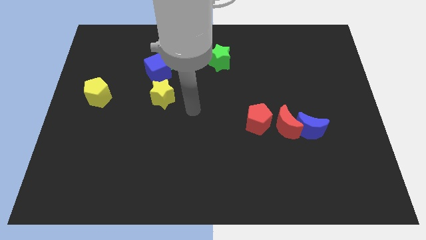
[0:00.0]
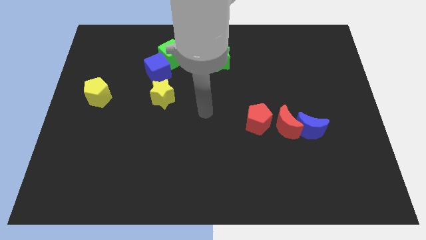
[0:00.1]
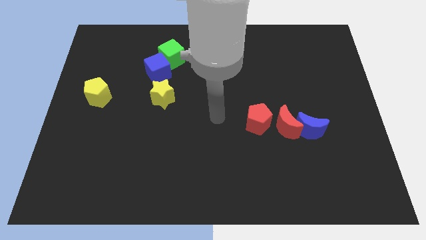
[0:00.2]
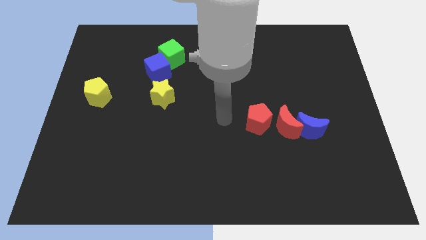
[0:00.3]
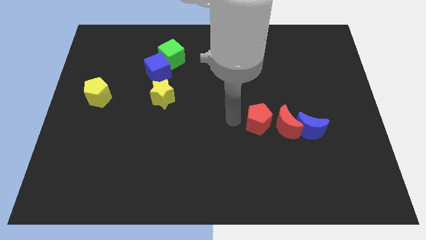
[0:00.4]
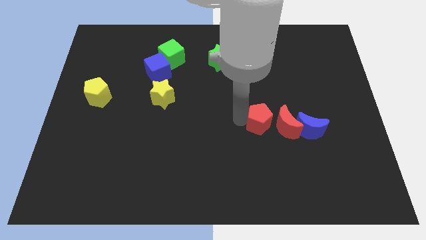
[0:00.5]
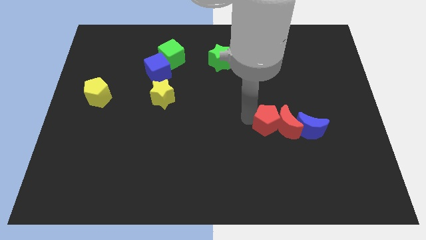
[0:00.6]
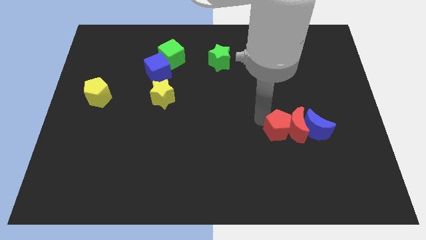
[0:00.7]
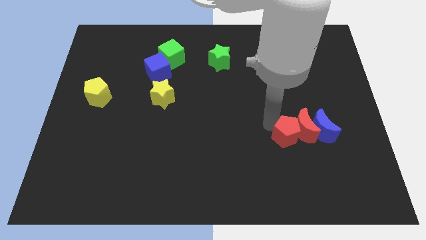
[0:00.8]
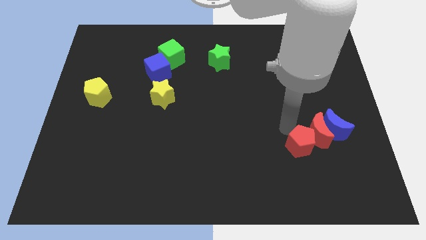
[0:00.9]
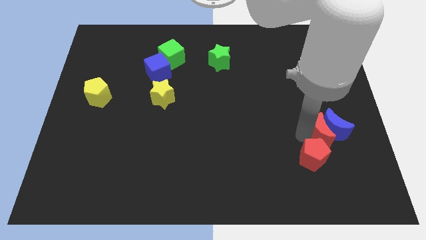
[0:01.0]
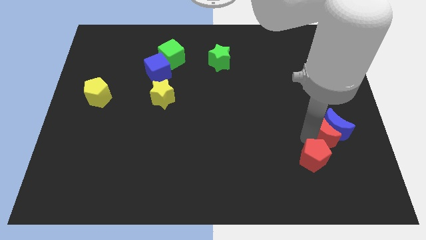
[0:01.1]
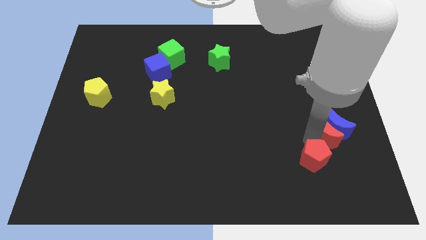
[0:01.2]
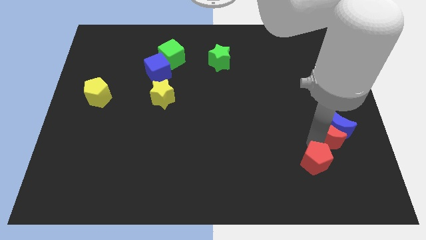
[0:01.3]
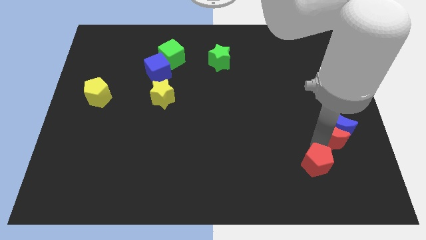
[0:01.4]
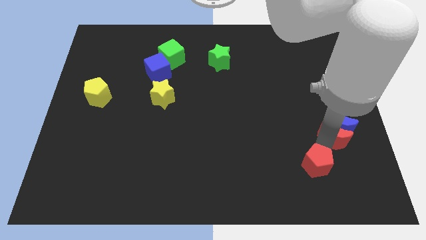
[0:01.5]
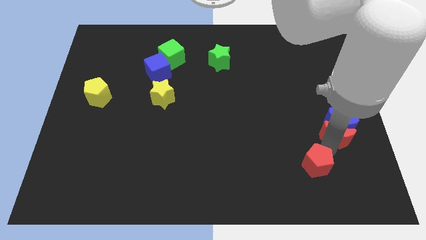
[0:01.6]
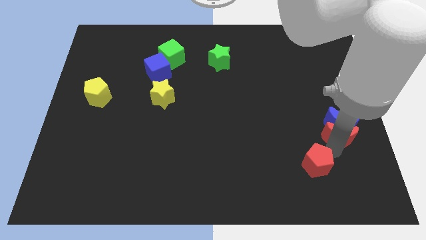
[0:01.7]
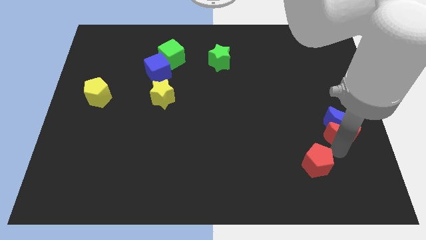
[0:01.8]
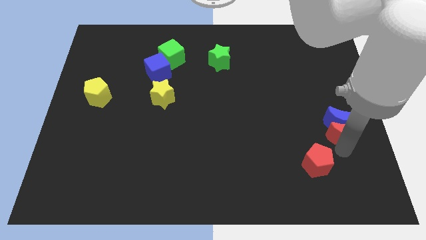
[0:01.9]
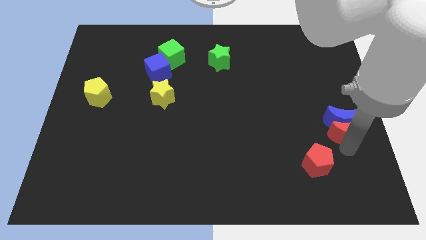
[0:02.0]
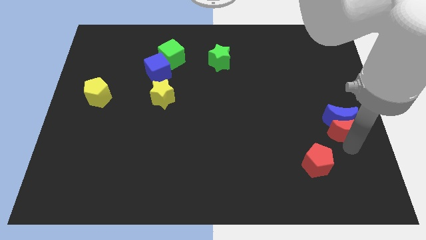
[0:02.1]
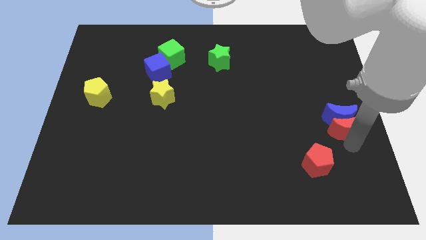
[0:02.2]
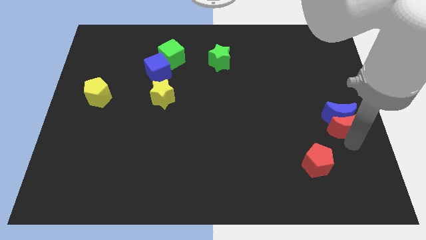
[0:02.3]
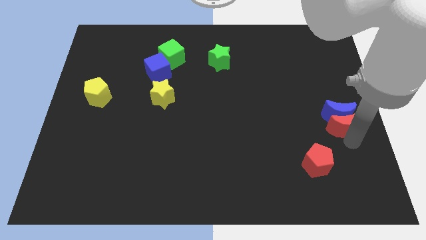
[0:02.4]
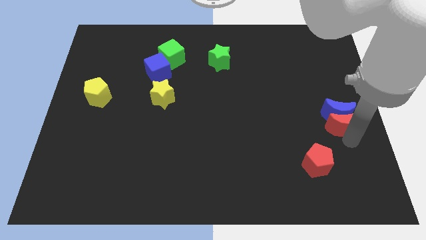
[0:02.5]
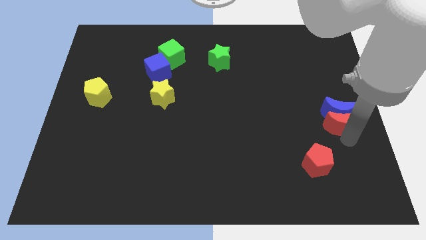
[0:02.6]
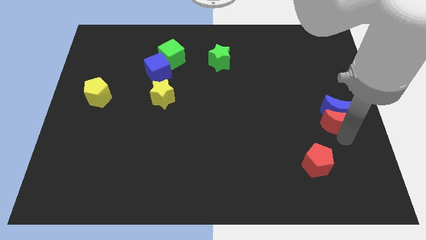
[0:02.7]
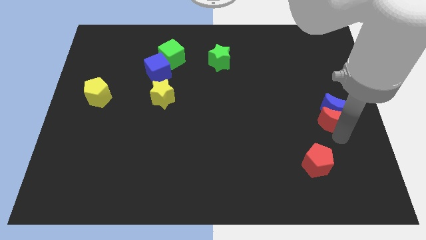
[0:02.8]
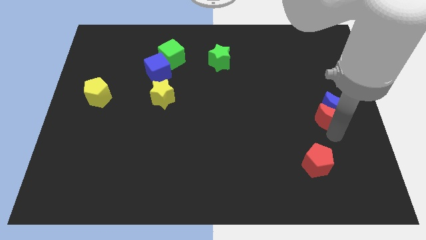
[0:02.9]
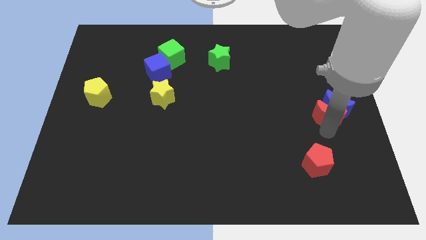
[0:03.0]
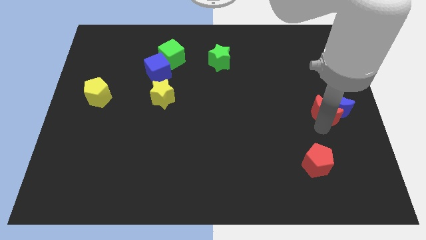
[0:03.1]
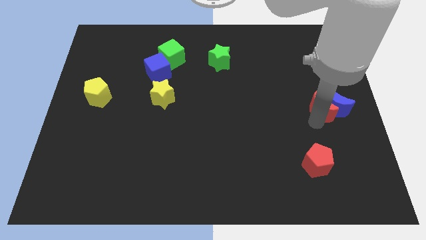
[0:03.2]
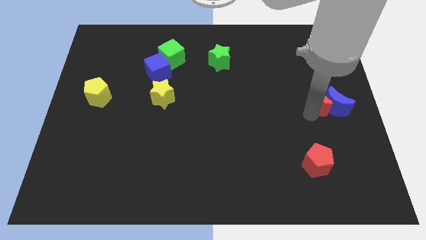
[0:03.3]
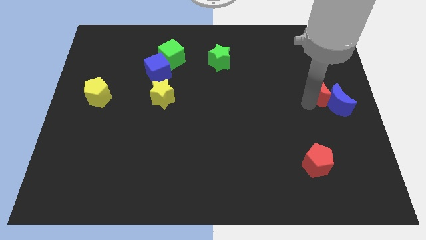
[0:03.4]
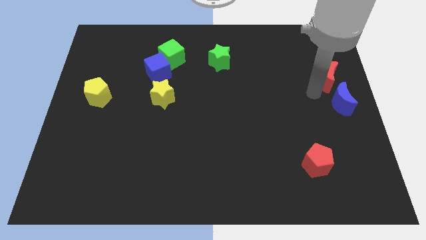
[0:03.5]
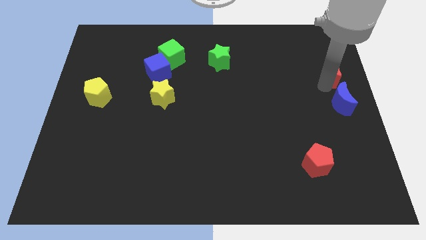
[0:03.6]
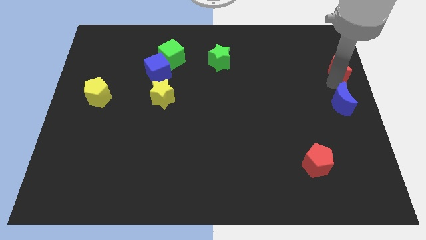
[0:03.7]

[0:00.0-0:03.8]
move the blue moon away from the red moon

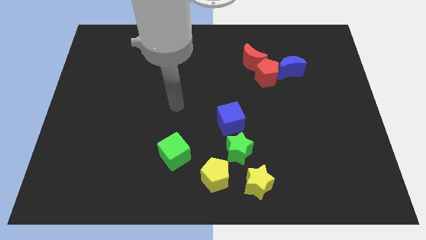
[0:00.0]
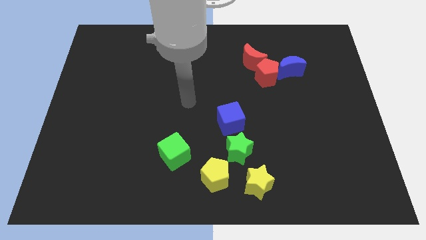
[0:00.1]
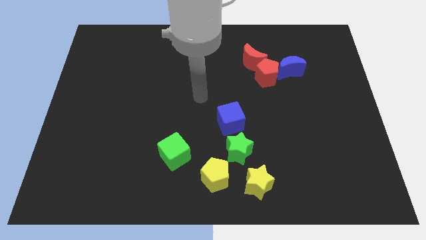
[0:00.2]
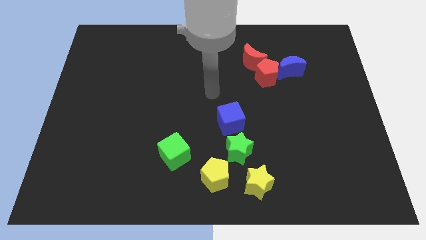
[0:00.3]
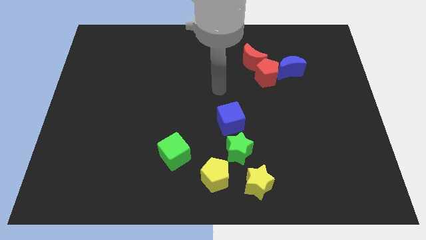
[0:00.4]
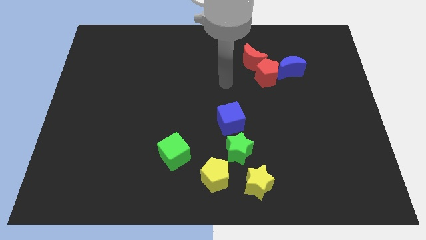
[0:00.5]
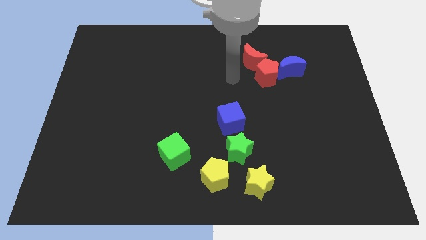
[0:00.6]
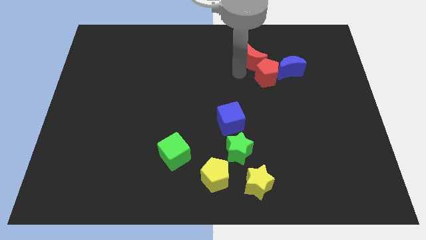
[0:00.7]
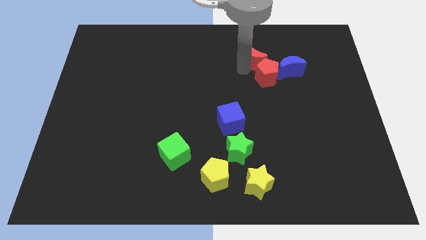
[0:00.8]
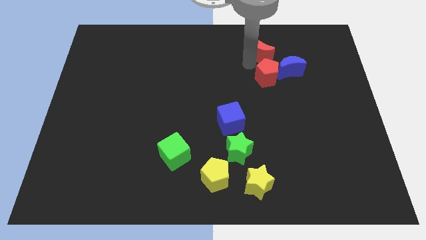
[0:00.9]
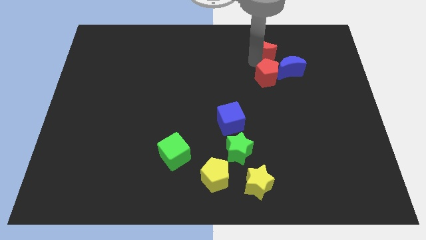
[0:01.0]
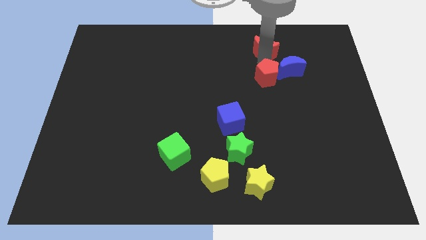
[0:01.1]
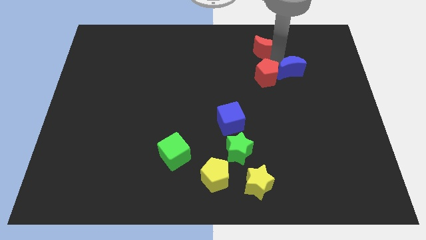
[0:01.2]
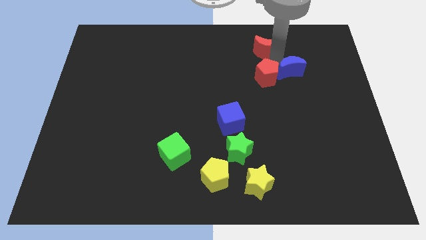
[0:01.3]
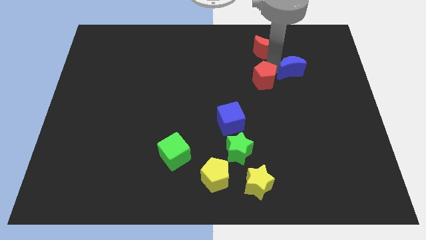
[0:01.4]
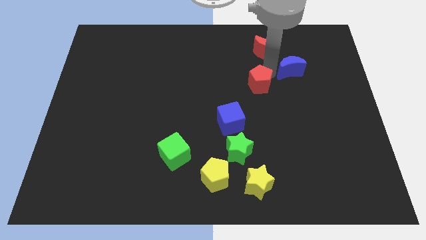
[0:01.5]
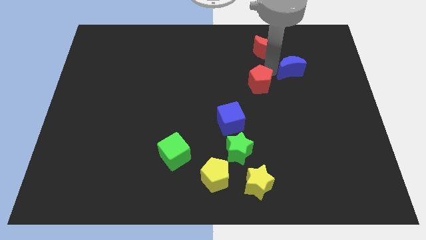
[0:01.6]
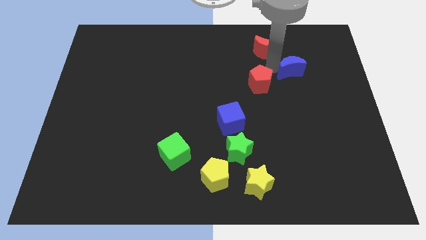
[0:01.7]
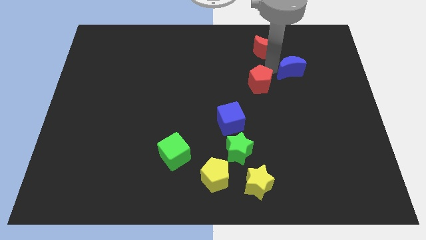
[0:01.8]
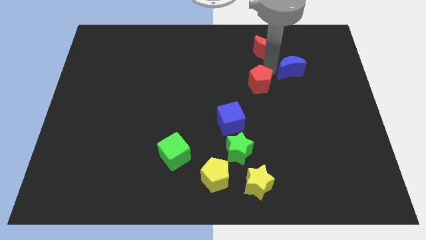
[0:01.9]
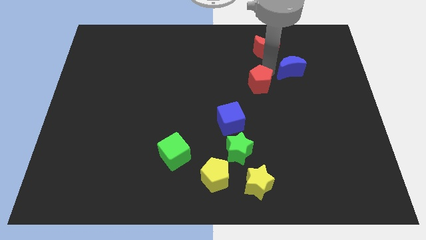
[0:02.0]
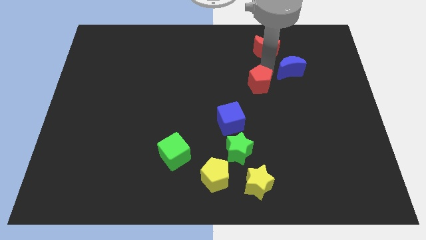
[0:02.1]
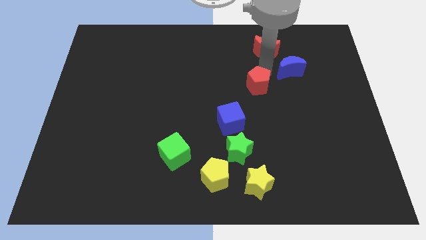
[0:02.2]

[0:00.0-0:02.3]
separate the red pentagon from the red moon and blue moon

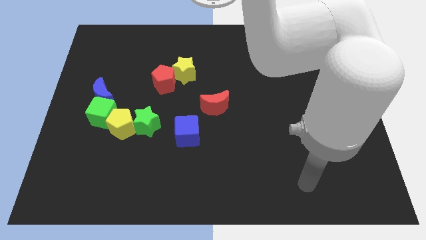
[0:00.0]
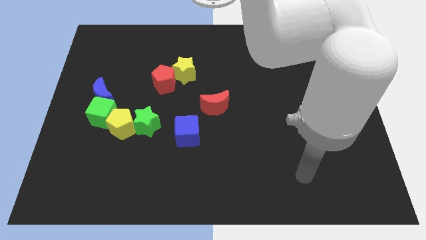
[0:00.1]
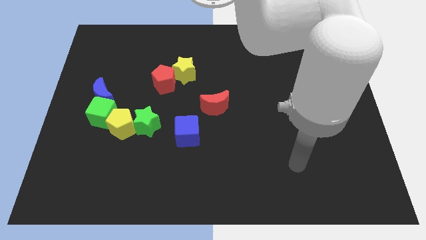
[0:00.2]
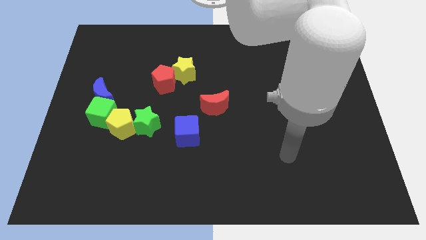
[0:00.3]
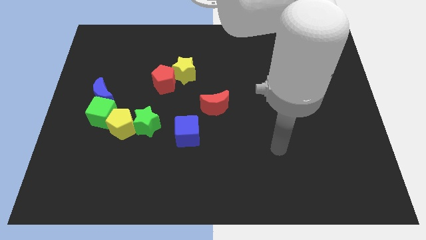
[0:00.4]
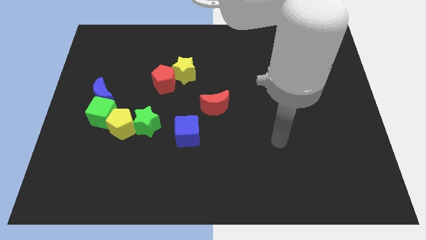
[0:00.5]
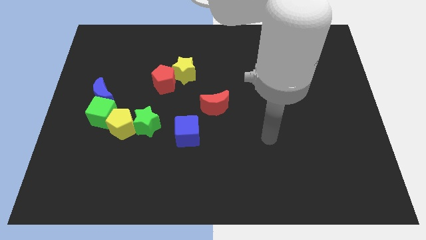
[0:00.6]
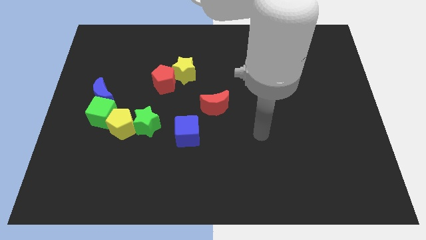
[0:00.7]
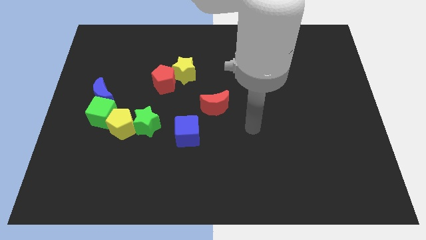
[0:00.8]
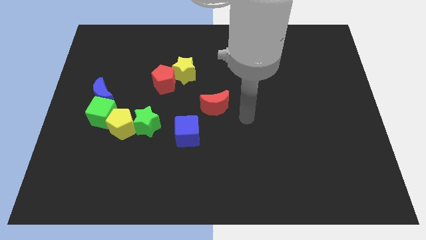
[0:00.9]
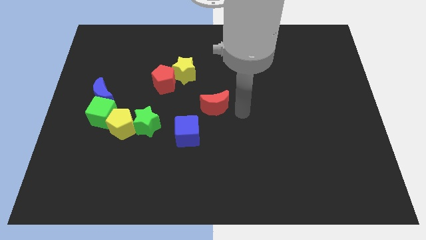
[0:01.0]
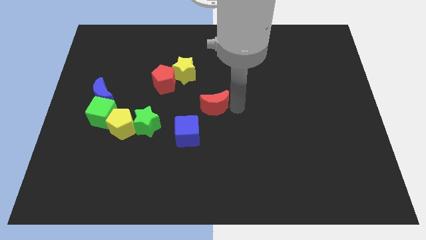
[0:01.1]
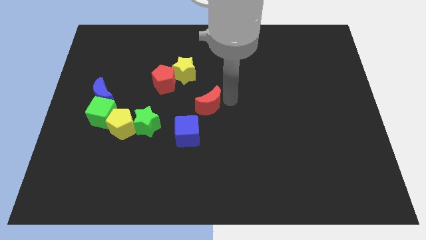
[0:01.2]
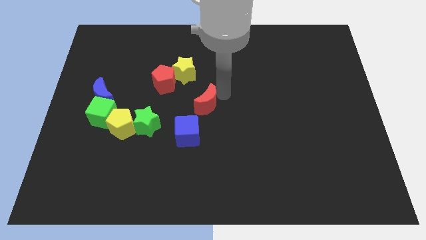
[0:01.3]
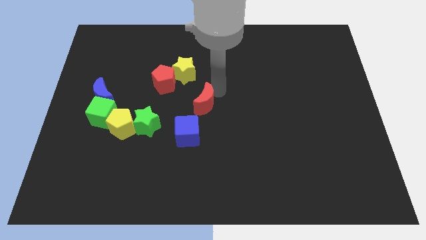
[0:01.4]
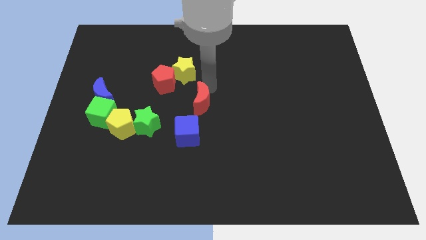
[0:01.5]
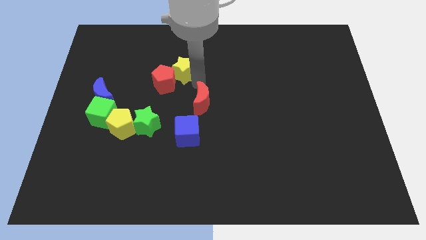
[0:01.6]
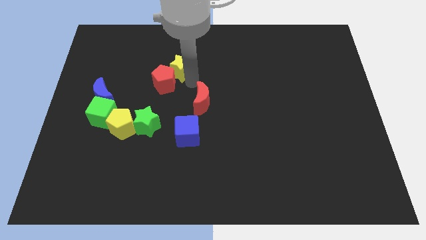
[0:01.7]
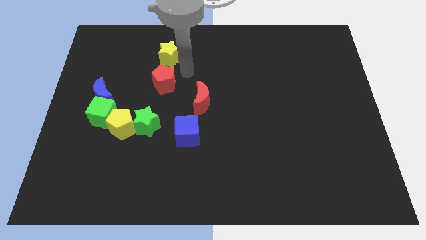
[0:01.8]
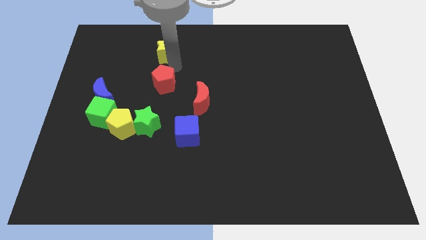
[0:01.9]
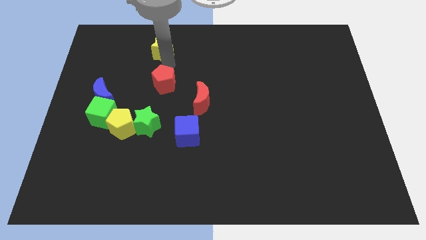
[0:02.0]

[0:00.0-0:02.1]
pull the red pentagon apart from the yellow star

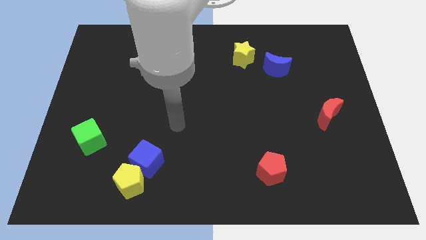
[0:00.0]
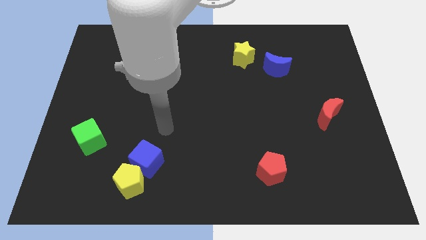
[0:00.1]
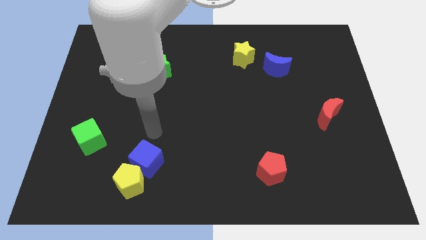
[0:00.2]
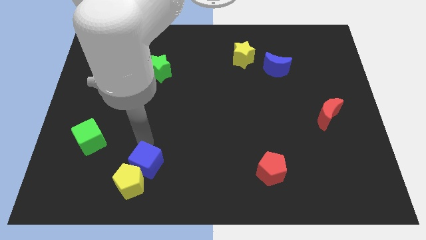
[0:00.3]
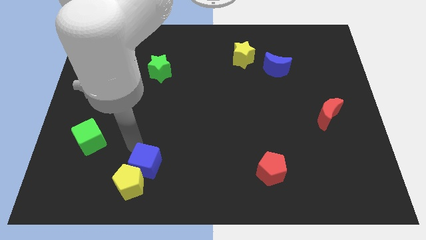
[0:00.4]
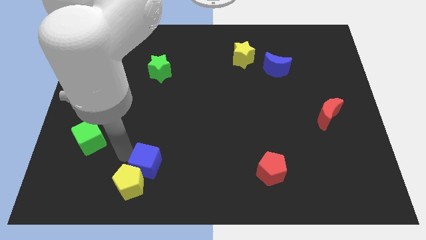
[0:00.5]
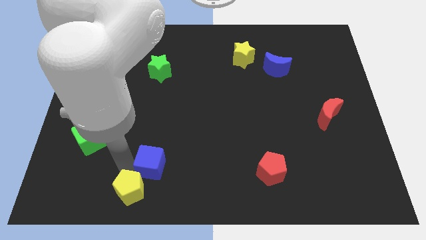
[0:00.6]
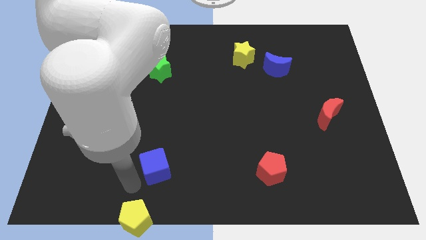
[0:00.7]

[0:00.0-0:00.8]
separate the blue cube from the yellow pentagon

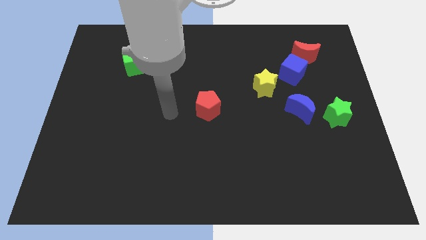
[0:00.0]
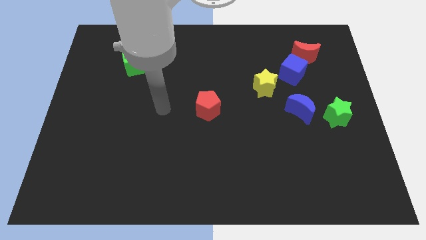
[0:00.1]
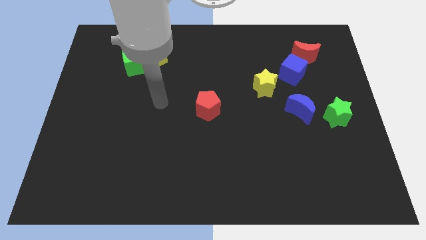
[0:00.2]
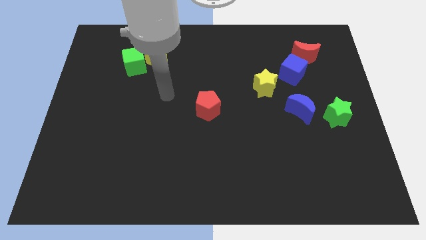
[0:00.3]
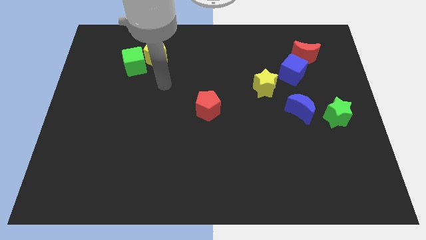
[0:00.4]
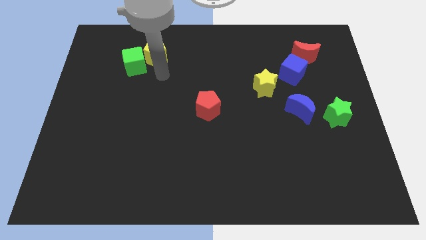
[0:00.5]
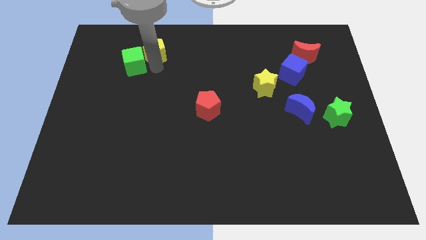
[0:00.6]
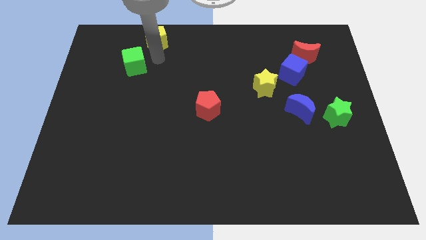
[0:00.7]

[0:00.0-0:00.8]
pull the green cube apart from the yellow pentagon
